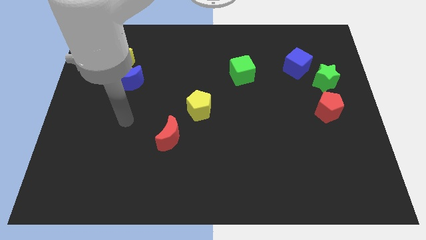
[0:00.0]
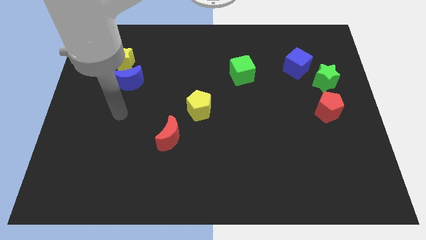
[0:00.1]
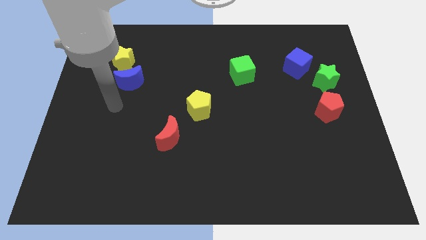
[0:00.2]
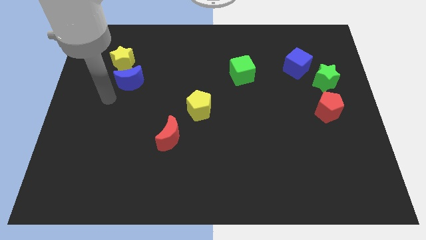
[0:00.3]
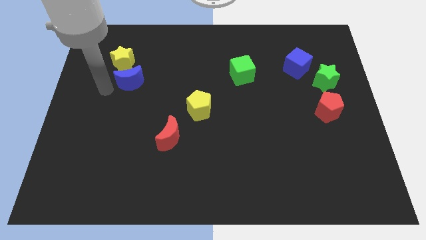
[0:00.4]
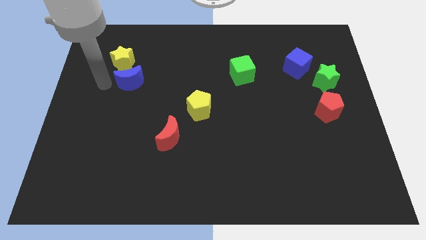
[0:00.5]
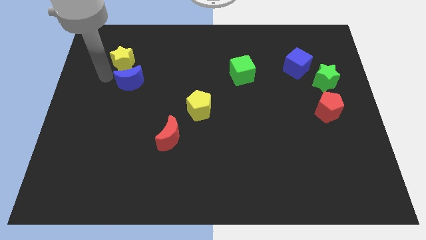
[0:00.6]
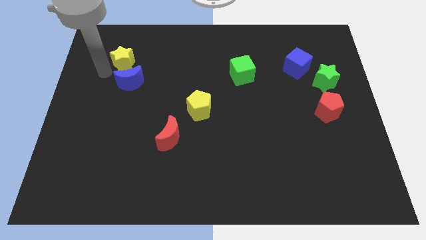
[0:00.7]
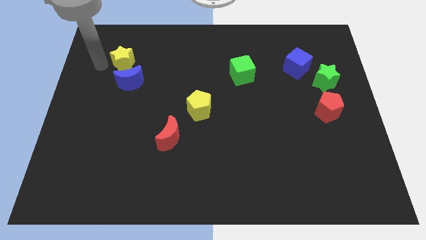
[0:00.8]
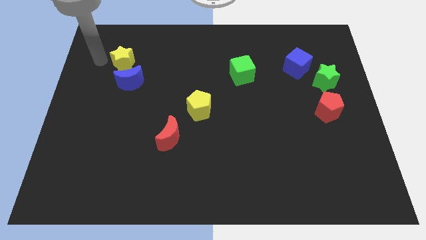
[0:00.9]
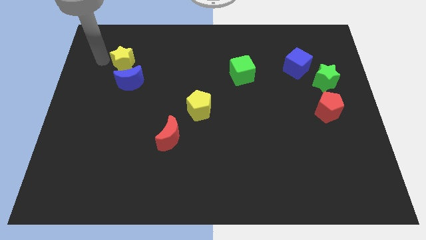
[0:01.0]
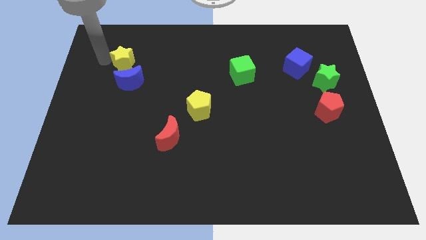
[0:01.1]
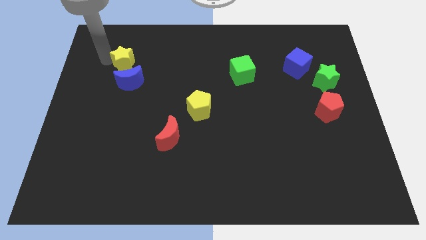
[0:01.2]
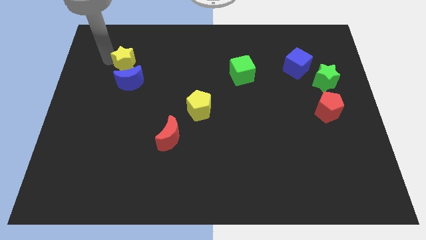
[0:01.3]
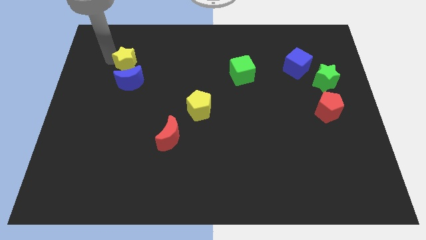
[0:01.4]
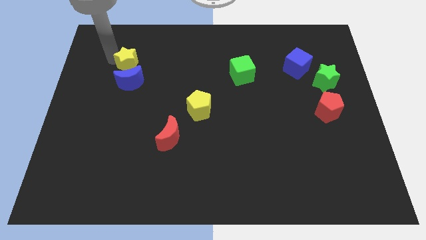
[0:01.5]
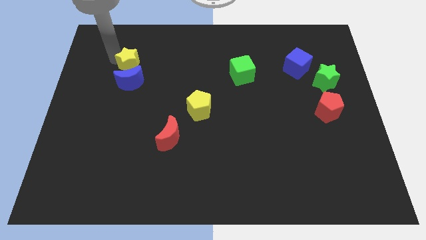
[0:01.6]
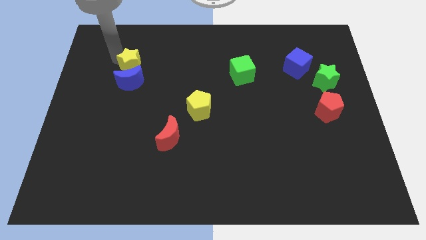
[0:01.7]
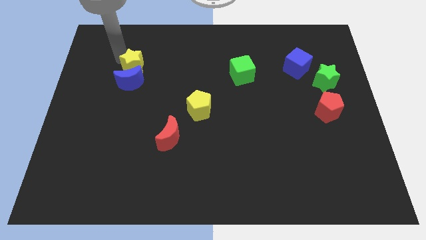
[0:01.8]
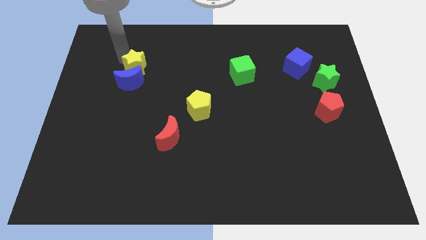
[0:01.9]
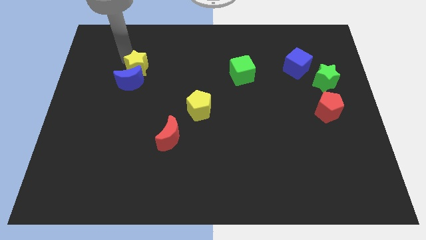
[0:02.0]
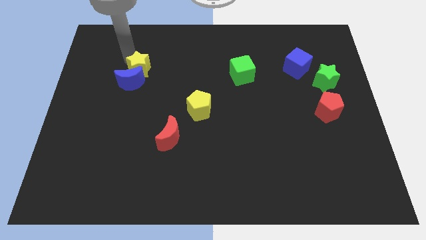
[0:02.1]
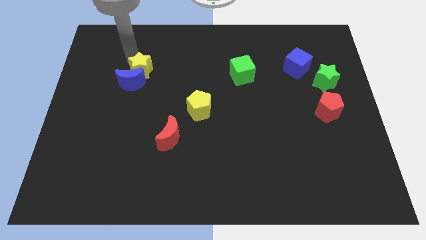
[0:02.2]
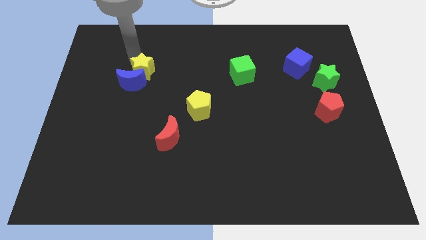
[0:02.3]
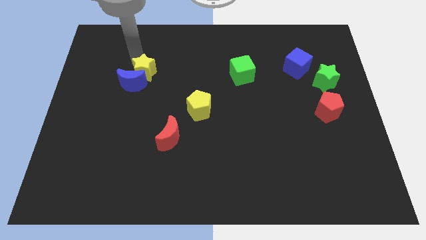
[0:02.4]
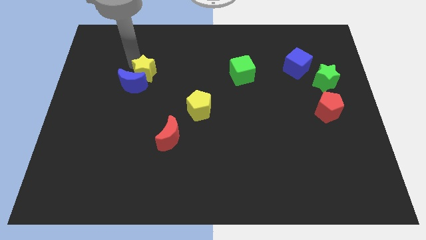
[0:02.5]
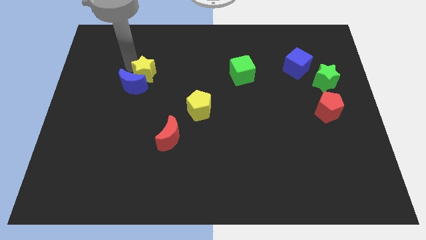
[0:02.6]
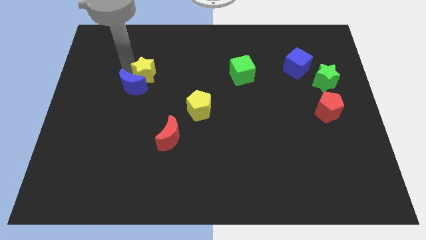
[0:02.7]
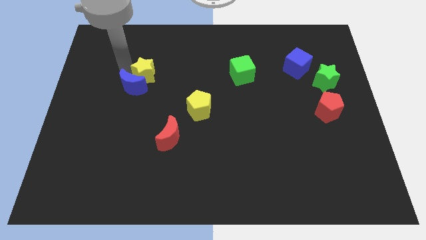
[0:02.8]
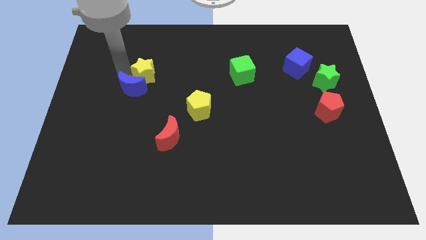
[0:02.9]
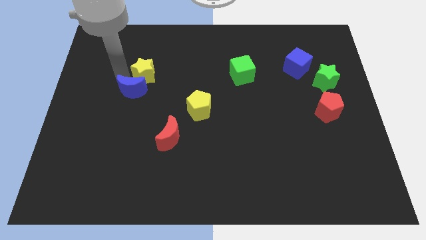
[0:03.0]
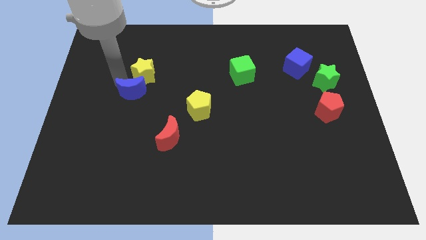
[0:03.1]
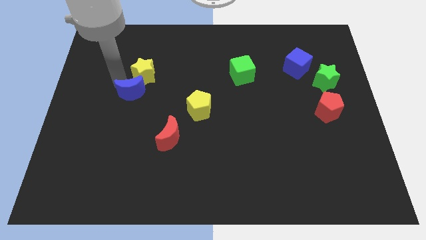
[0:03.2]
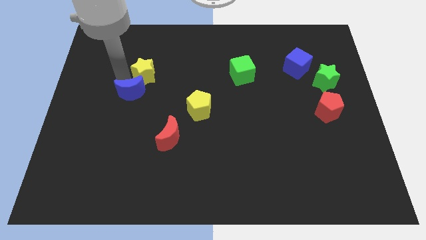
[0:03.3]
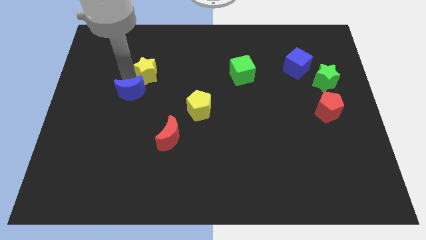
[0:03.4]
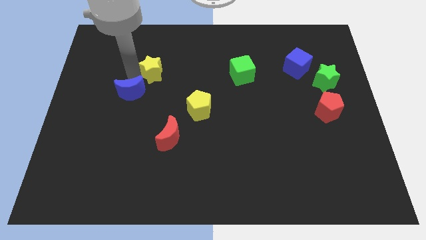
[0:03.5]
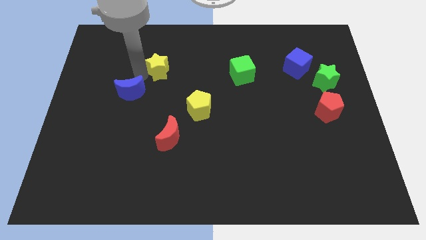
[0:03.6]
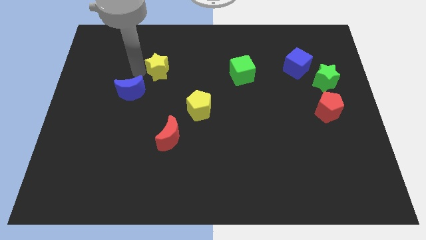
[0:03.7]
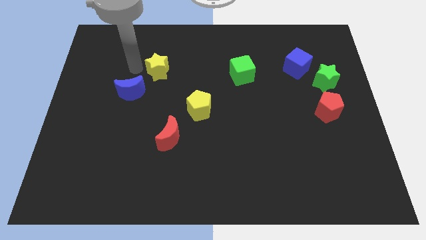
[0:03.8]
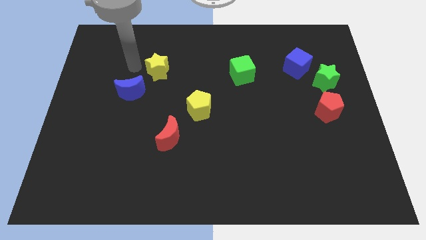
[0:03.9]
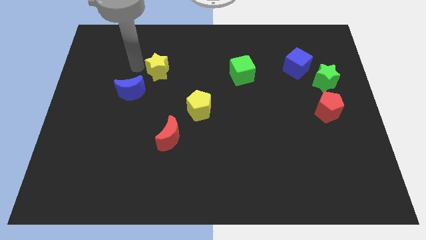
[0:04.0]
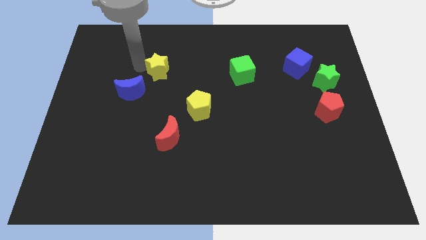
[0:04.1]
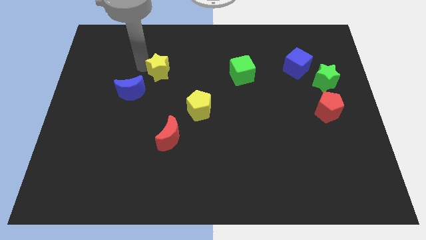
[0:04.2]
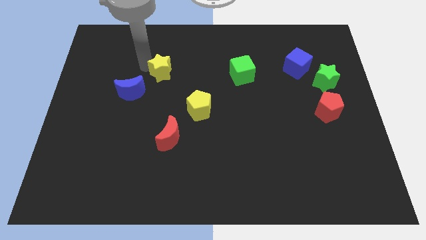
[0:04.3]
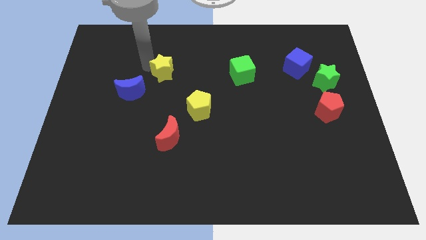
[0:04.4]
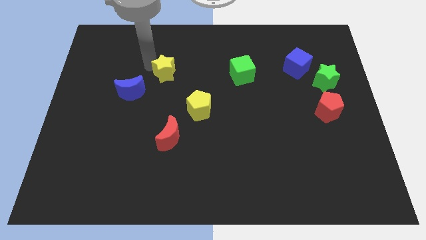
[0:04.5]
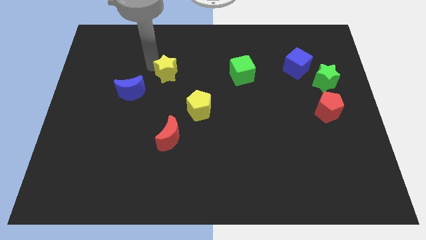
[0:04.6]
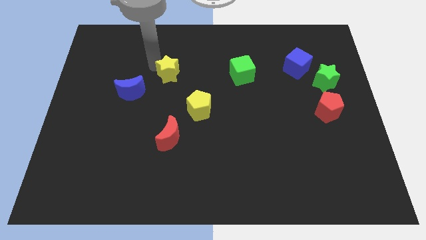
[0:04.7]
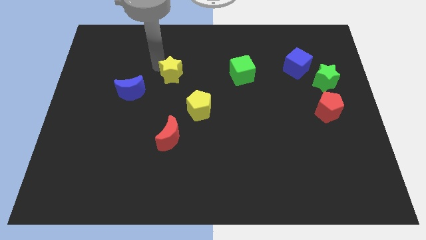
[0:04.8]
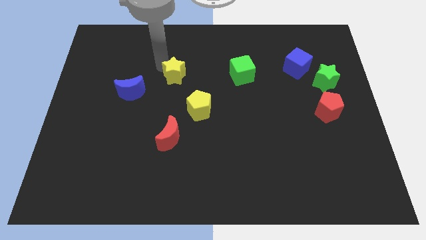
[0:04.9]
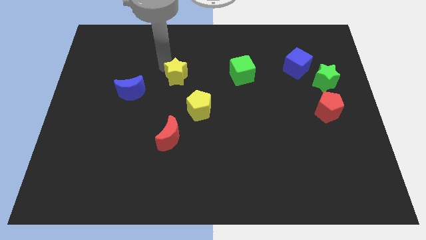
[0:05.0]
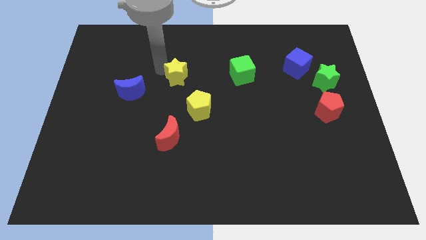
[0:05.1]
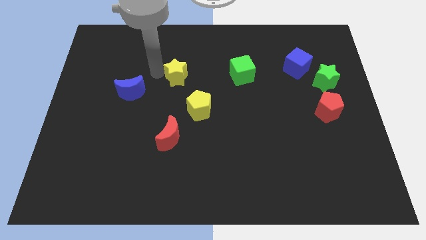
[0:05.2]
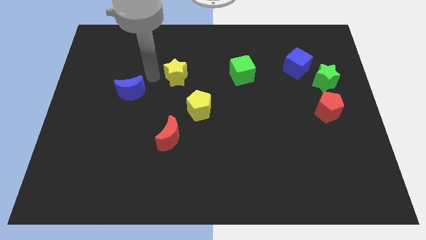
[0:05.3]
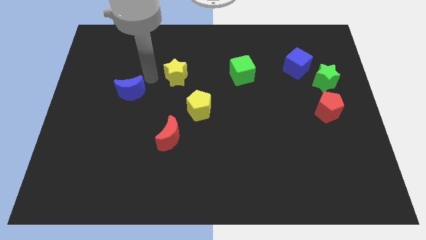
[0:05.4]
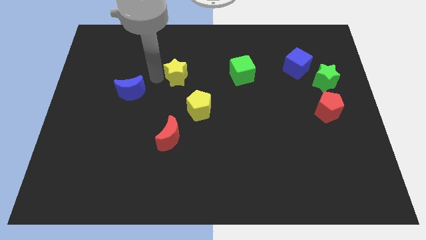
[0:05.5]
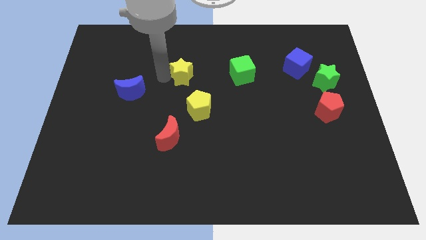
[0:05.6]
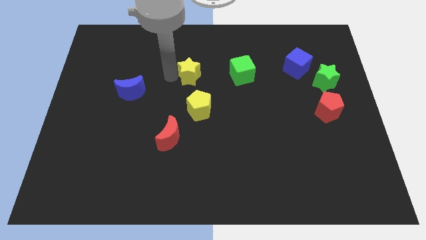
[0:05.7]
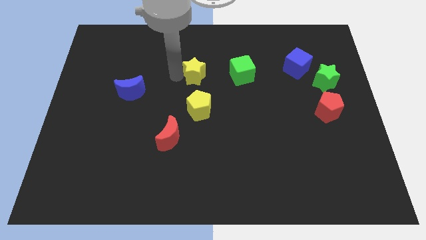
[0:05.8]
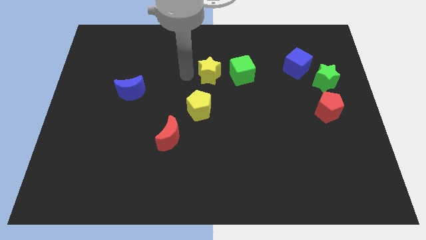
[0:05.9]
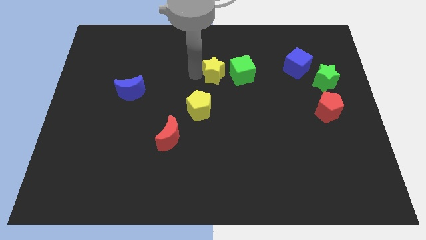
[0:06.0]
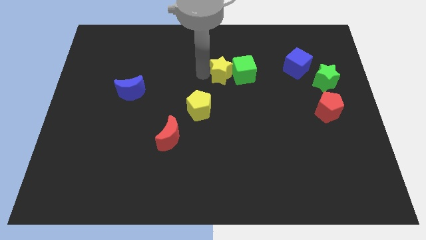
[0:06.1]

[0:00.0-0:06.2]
put the yellow star to the green cube
